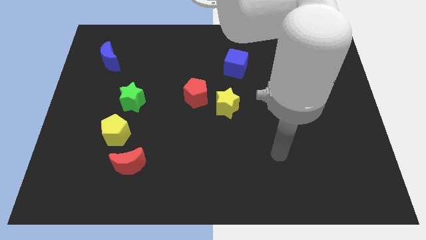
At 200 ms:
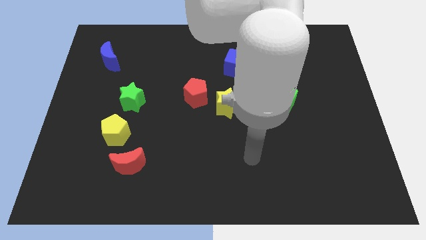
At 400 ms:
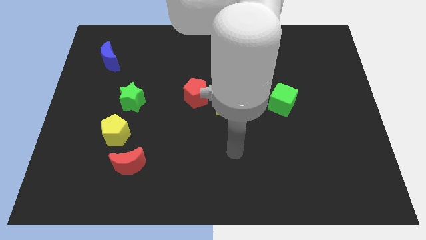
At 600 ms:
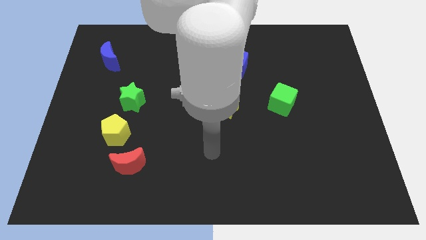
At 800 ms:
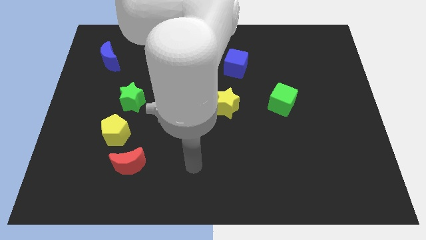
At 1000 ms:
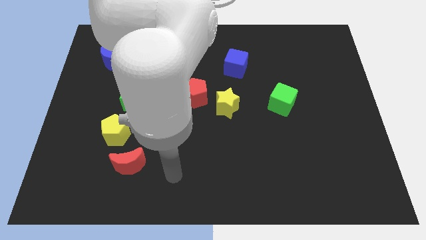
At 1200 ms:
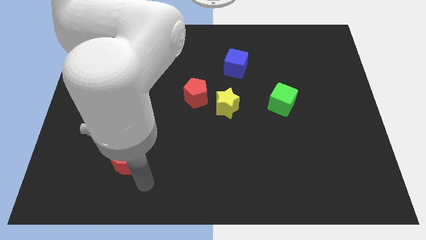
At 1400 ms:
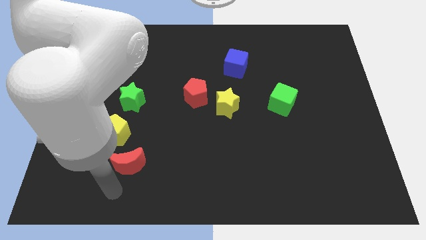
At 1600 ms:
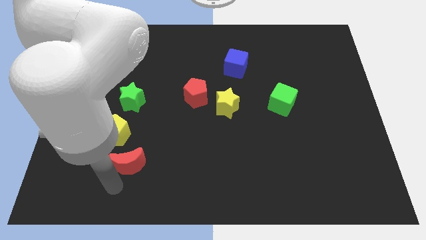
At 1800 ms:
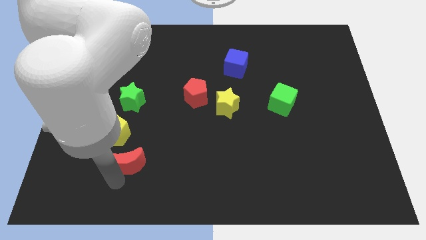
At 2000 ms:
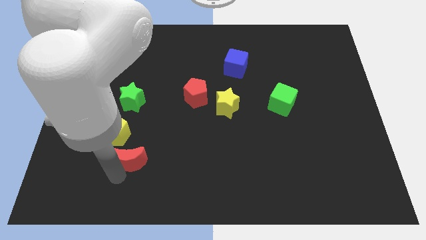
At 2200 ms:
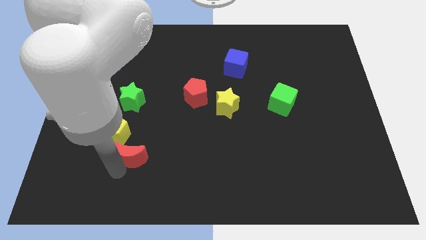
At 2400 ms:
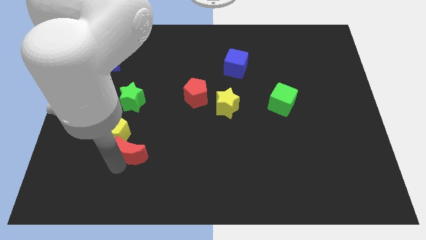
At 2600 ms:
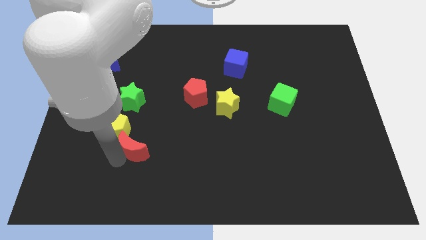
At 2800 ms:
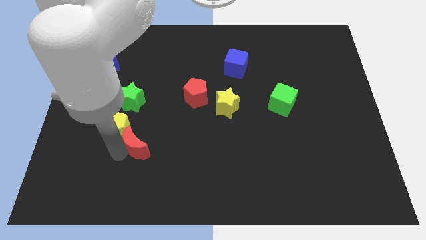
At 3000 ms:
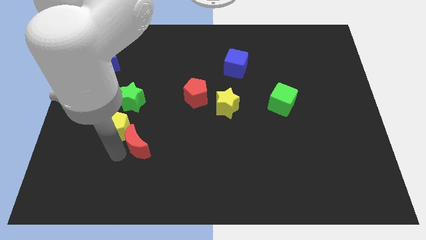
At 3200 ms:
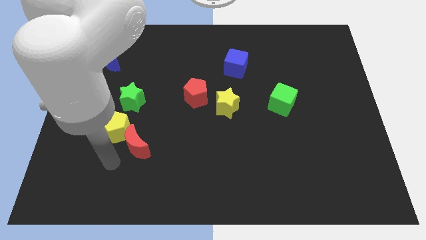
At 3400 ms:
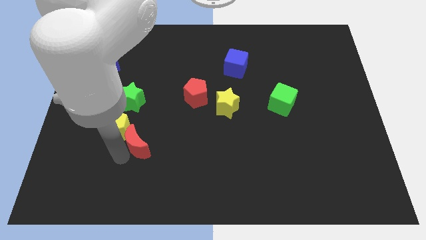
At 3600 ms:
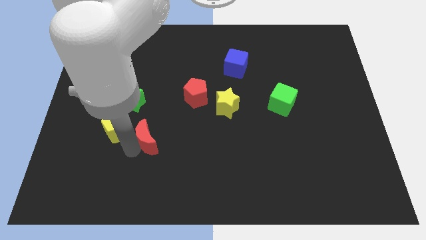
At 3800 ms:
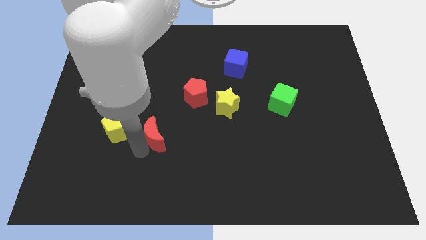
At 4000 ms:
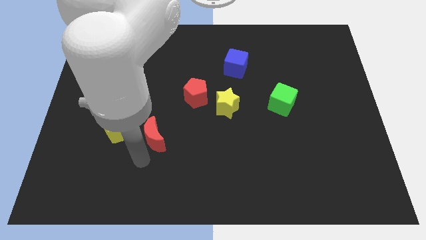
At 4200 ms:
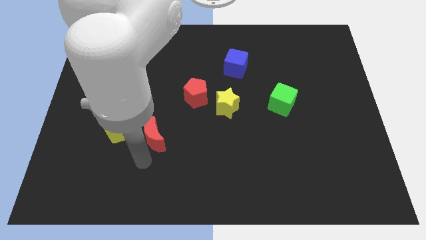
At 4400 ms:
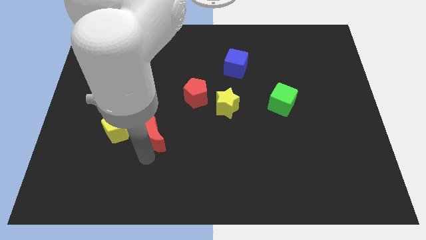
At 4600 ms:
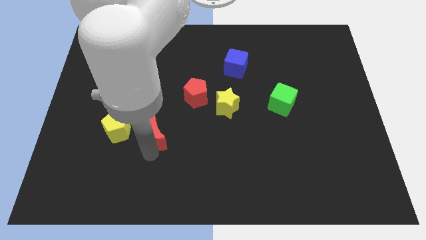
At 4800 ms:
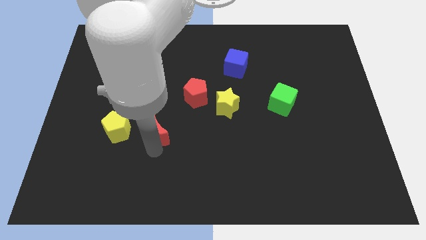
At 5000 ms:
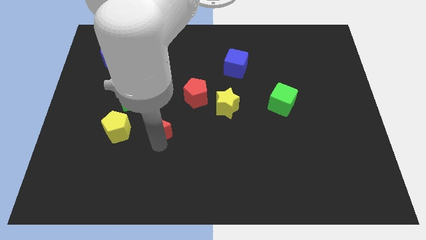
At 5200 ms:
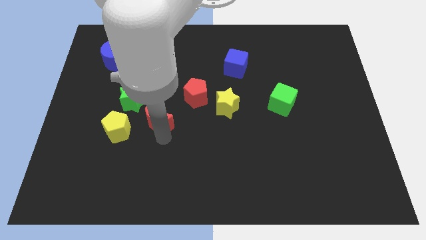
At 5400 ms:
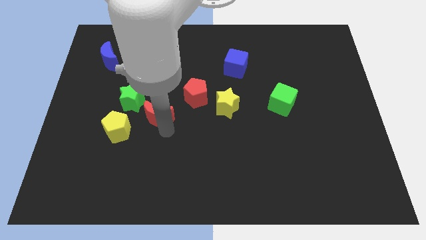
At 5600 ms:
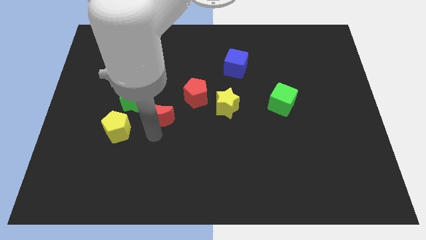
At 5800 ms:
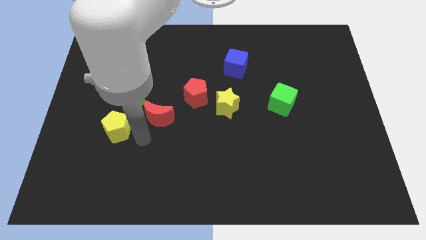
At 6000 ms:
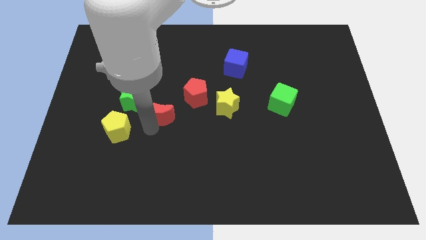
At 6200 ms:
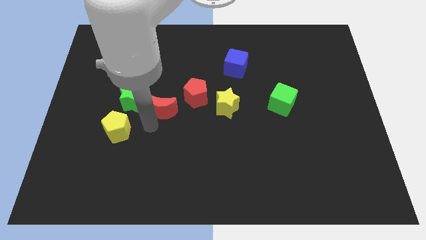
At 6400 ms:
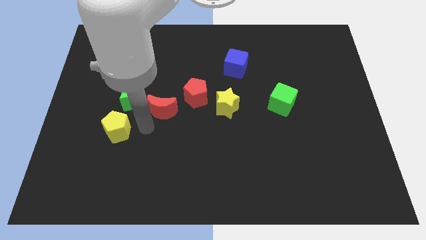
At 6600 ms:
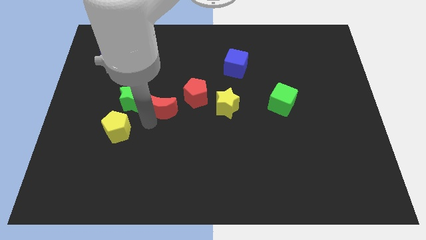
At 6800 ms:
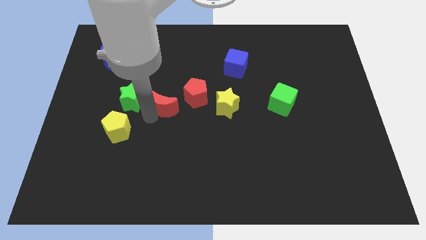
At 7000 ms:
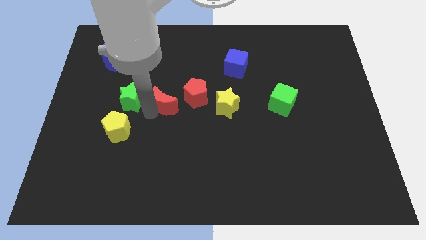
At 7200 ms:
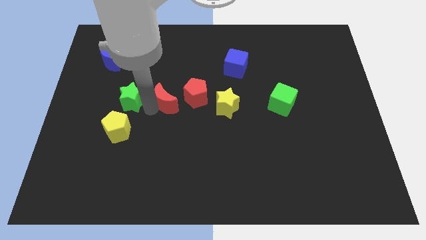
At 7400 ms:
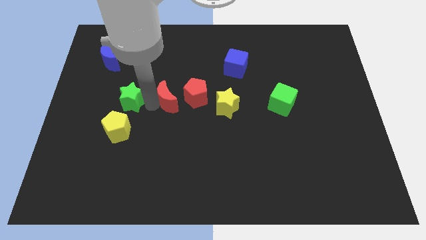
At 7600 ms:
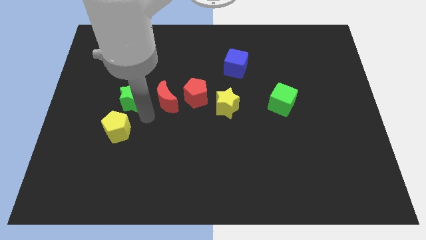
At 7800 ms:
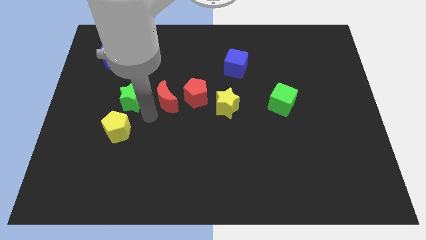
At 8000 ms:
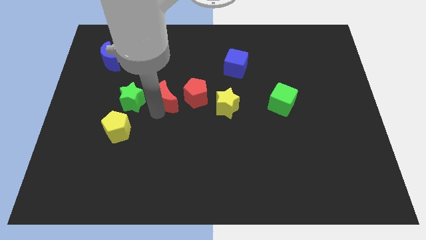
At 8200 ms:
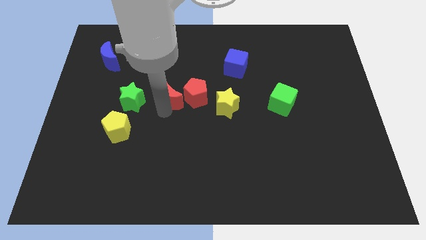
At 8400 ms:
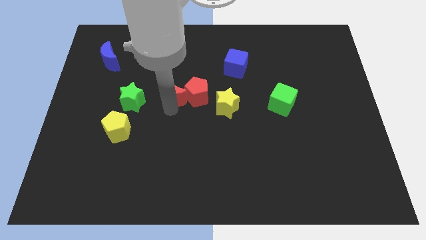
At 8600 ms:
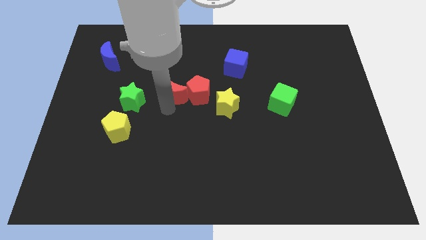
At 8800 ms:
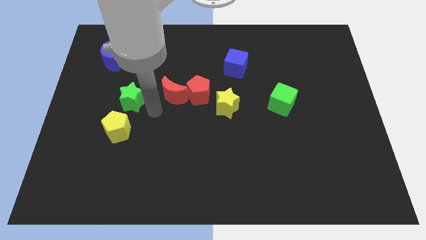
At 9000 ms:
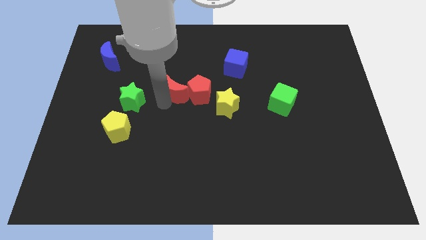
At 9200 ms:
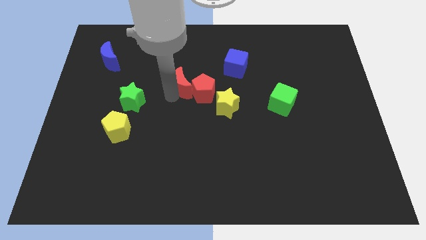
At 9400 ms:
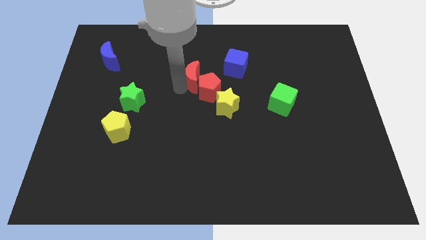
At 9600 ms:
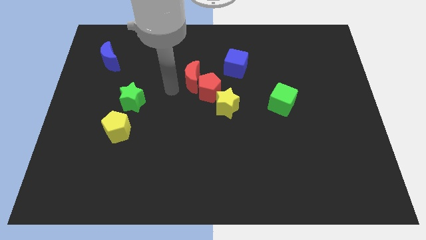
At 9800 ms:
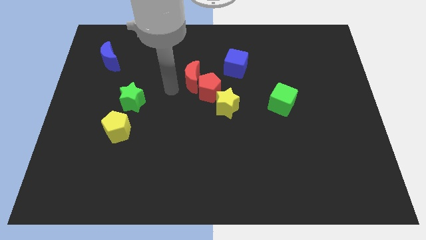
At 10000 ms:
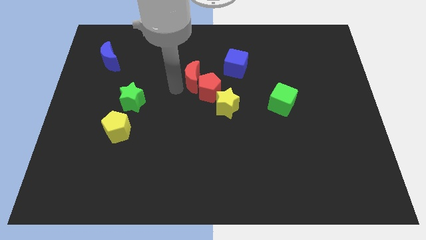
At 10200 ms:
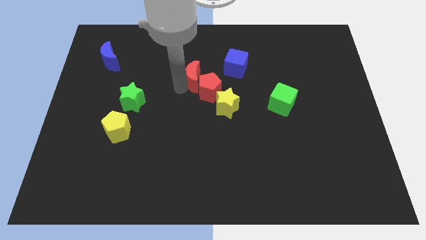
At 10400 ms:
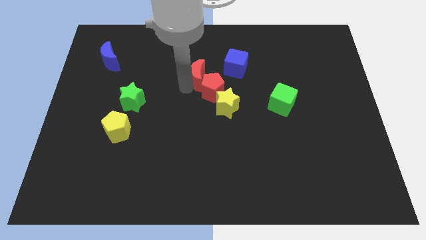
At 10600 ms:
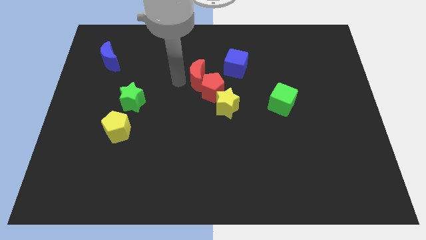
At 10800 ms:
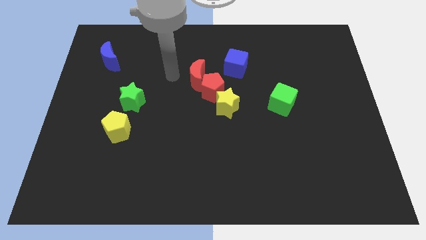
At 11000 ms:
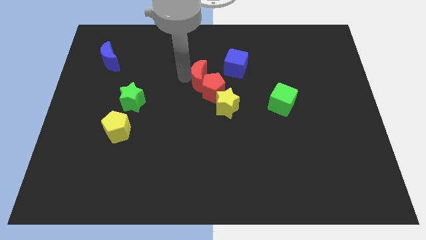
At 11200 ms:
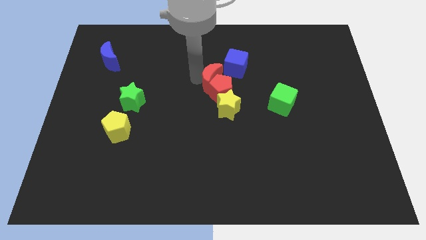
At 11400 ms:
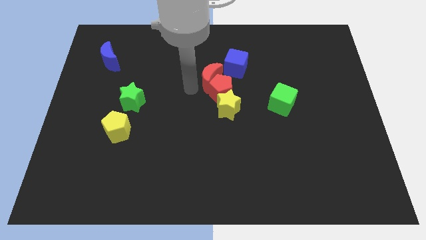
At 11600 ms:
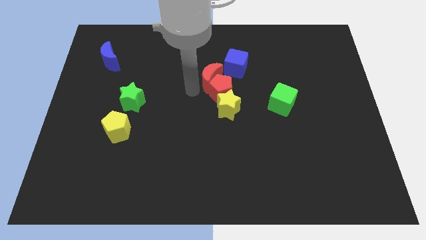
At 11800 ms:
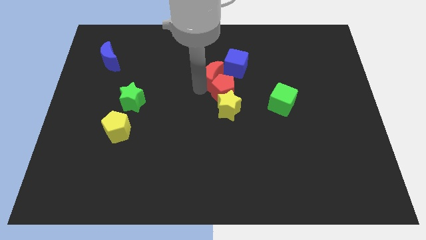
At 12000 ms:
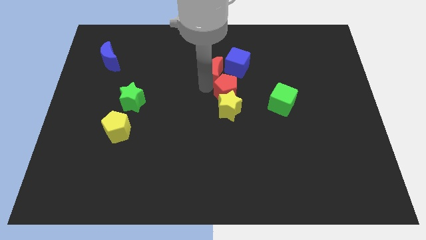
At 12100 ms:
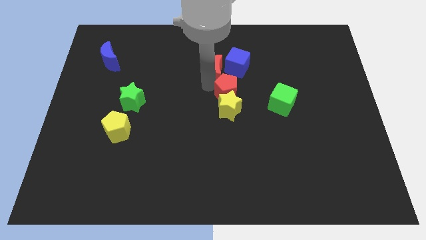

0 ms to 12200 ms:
put the red moon close to the blue cube

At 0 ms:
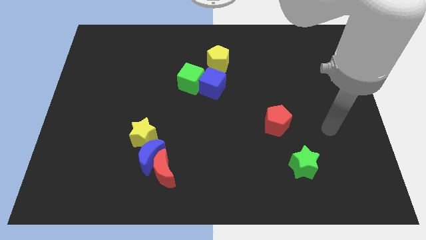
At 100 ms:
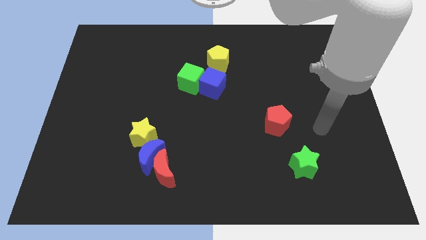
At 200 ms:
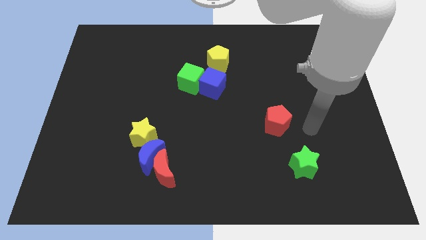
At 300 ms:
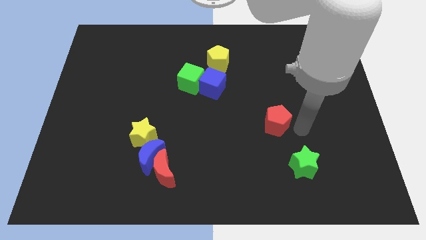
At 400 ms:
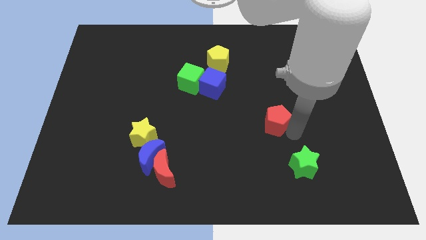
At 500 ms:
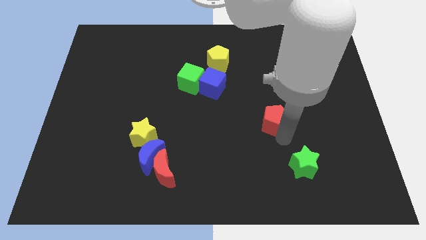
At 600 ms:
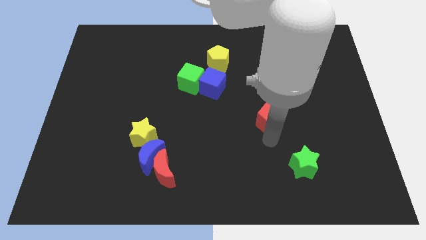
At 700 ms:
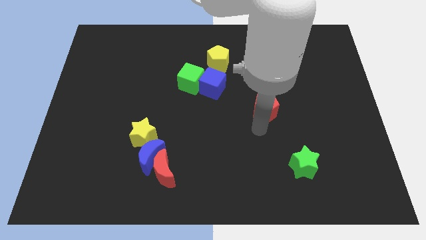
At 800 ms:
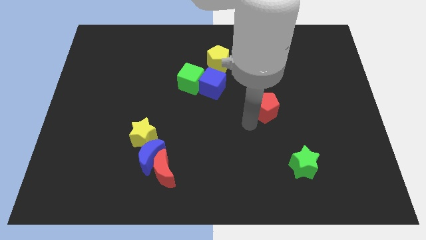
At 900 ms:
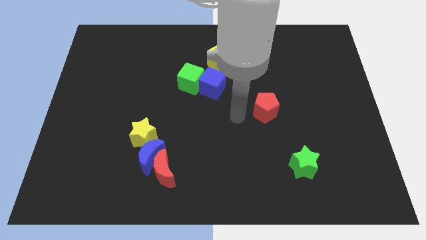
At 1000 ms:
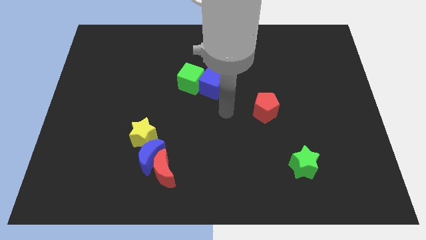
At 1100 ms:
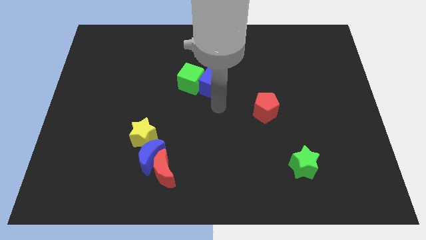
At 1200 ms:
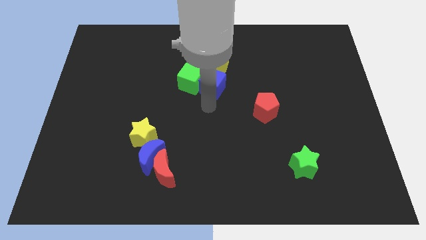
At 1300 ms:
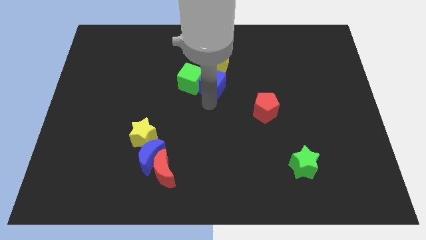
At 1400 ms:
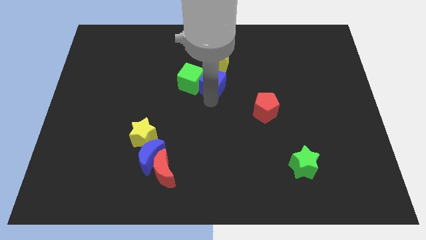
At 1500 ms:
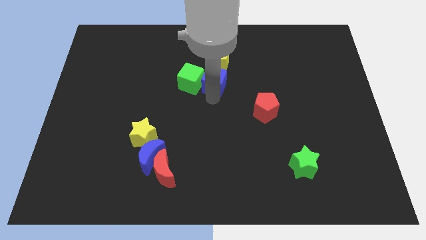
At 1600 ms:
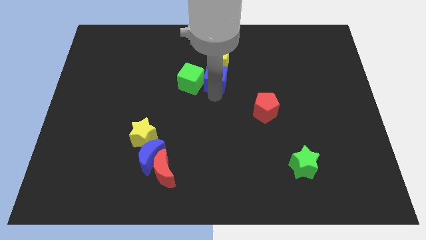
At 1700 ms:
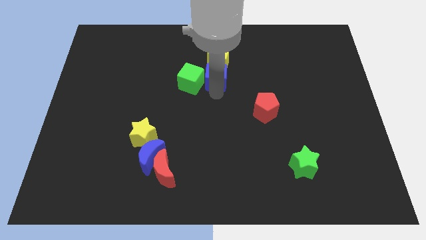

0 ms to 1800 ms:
slide the blue cube towards the yellow pentagon
